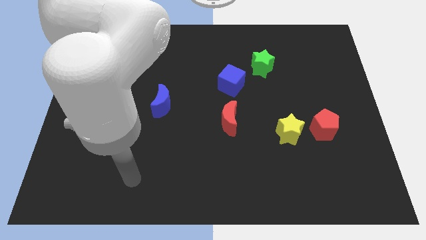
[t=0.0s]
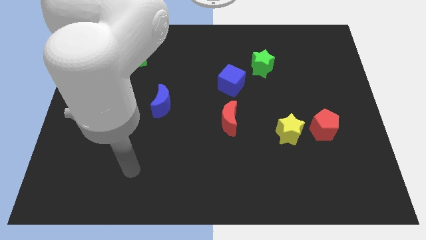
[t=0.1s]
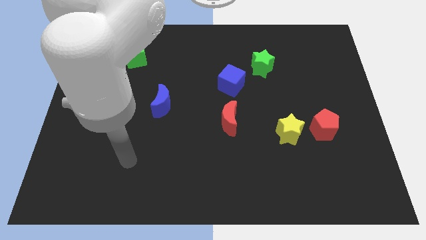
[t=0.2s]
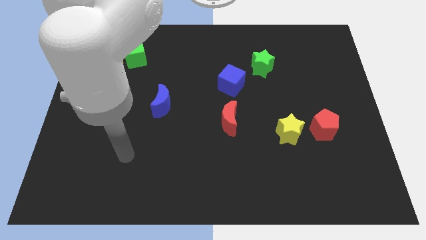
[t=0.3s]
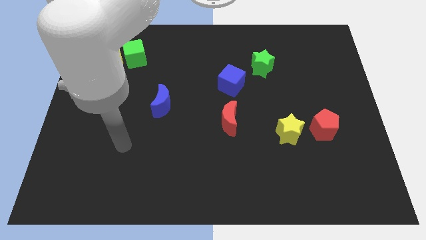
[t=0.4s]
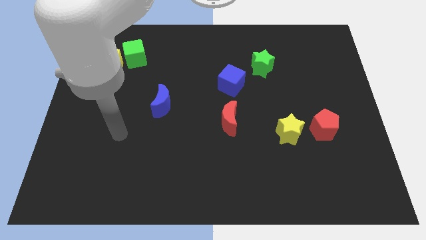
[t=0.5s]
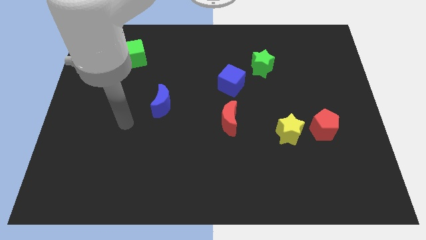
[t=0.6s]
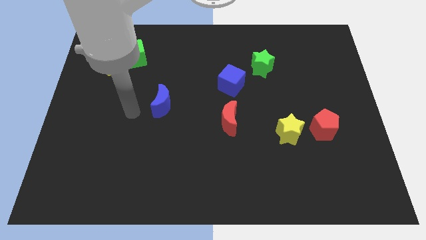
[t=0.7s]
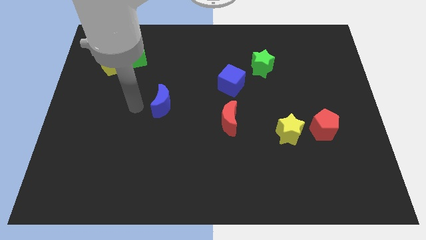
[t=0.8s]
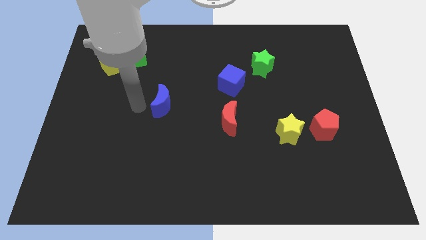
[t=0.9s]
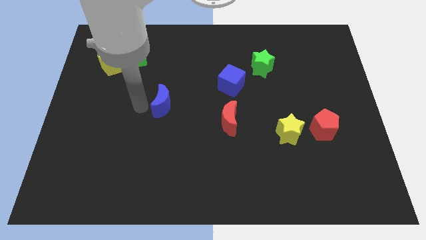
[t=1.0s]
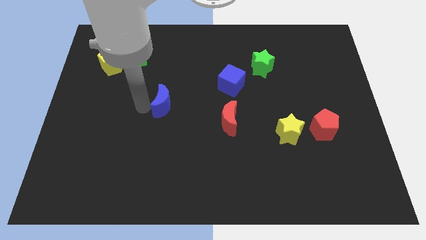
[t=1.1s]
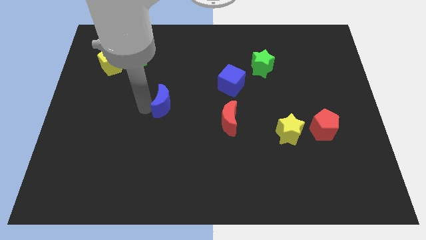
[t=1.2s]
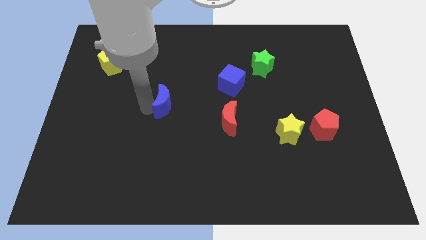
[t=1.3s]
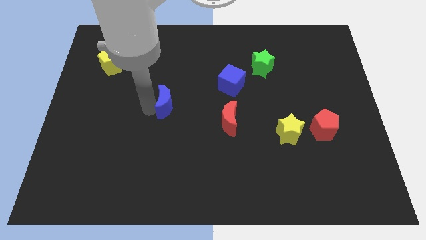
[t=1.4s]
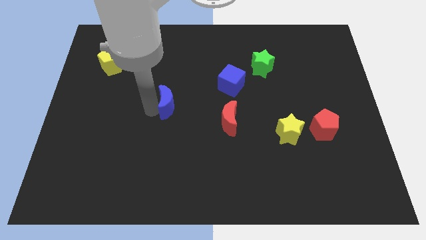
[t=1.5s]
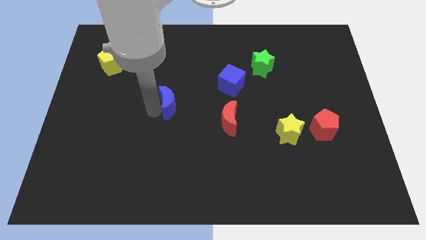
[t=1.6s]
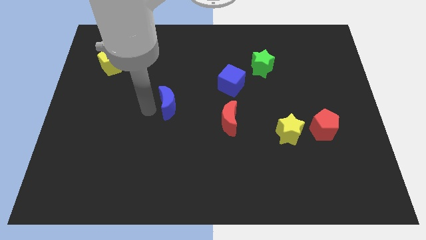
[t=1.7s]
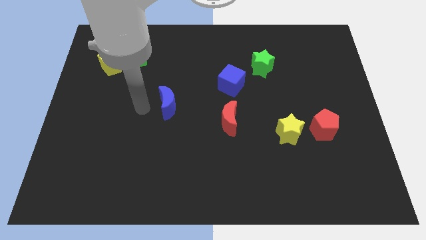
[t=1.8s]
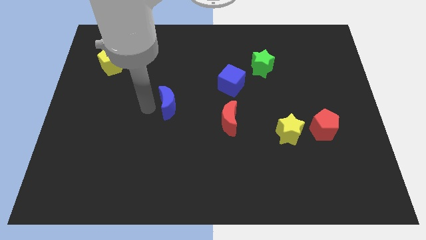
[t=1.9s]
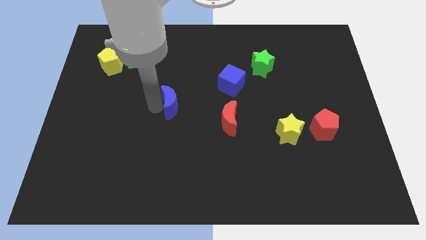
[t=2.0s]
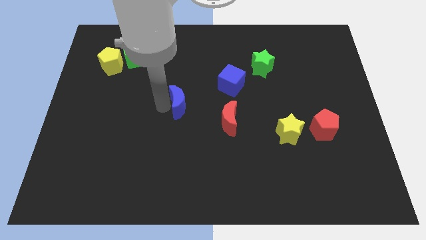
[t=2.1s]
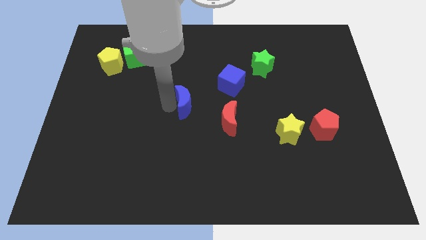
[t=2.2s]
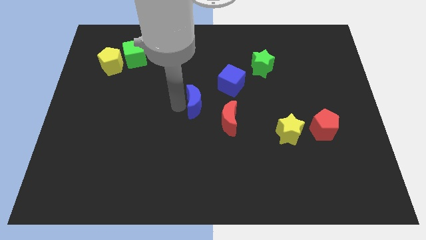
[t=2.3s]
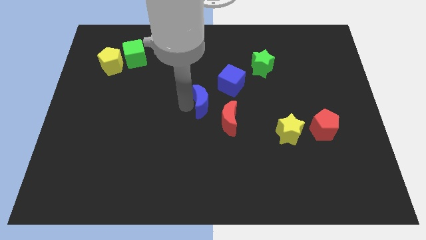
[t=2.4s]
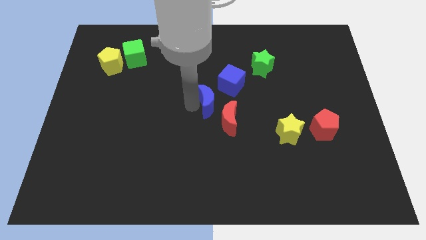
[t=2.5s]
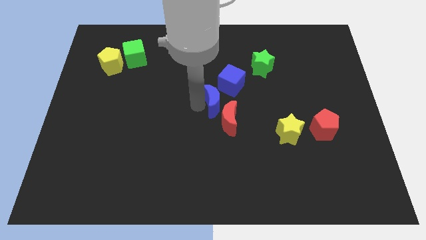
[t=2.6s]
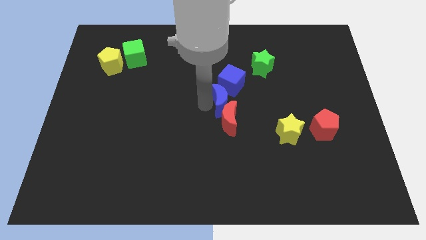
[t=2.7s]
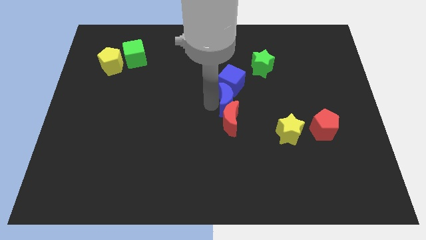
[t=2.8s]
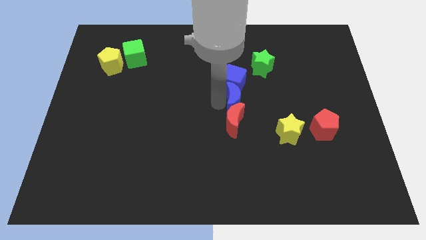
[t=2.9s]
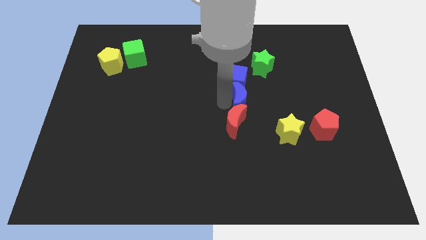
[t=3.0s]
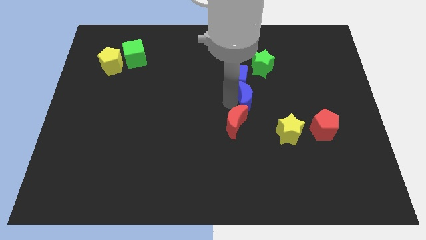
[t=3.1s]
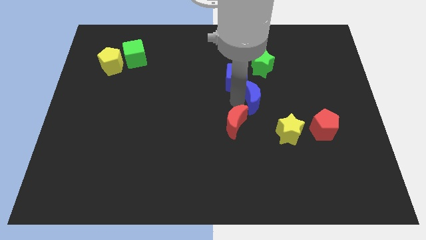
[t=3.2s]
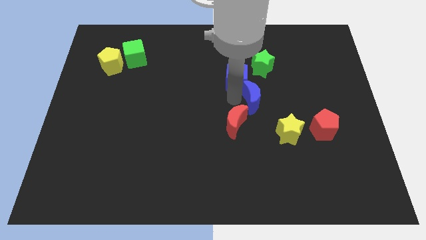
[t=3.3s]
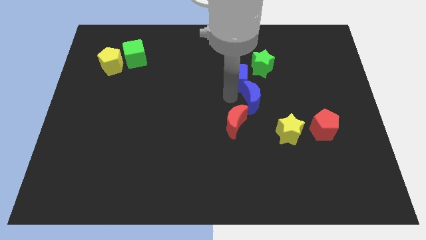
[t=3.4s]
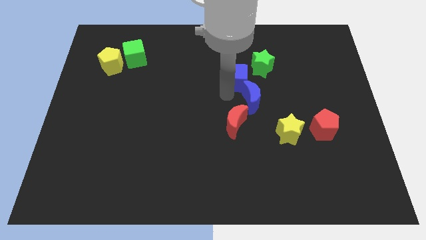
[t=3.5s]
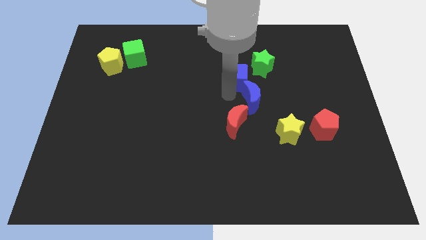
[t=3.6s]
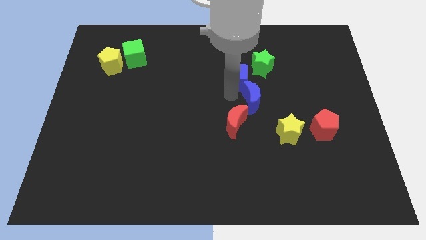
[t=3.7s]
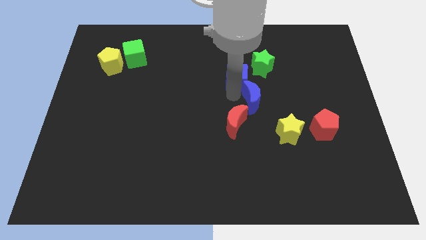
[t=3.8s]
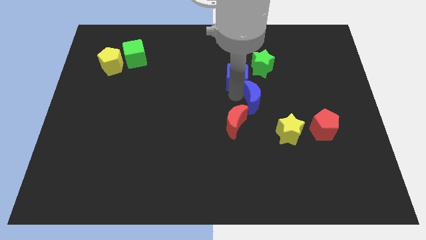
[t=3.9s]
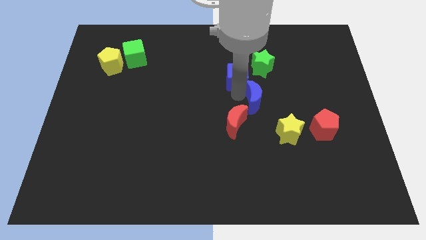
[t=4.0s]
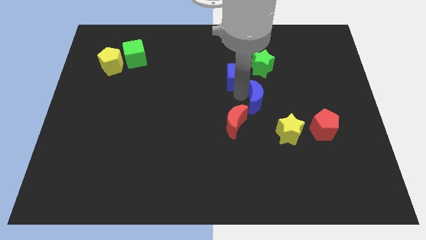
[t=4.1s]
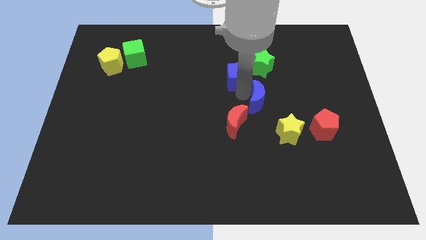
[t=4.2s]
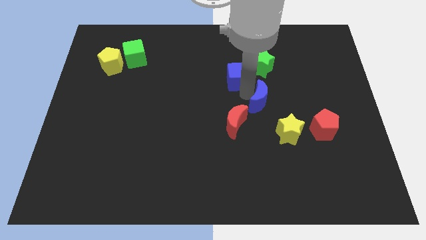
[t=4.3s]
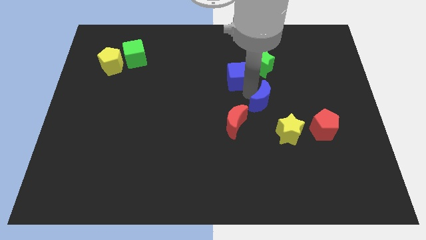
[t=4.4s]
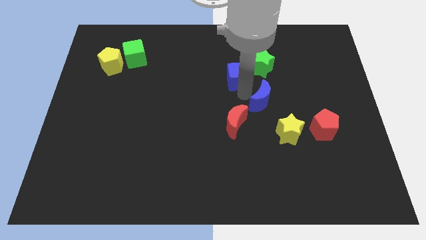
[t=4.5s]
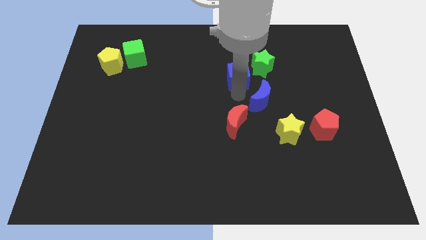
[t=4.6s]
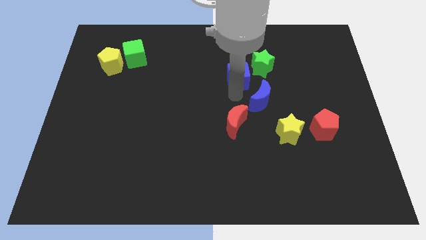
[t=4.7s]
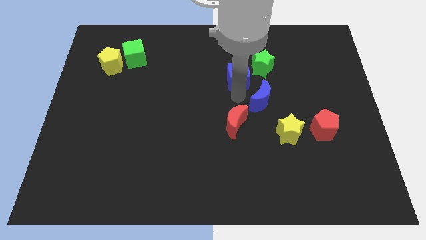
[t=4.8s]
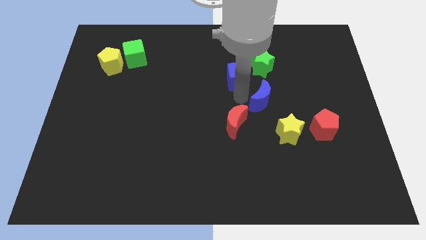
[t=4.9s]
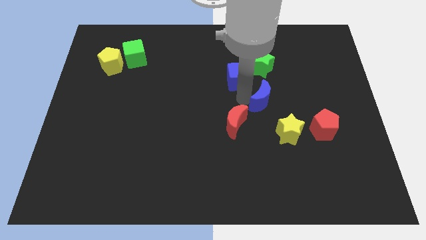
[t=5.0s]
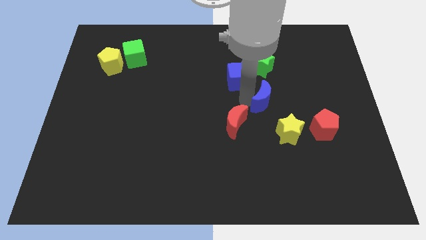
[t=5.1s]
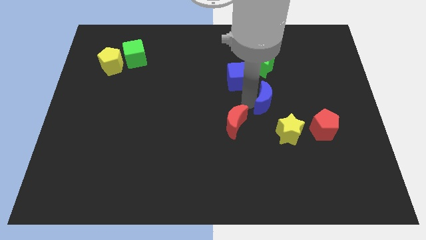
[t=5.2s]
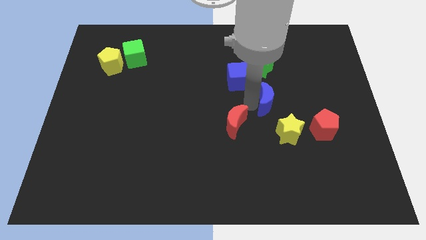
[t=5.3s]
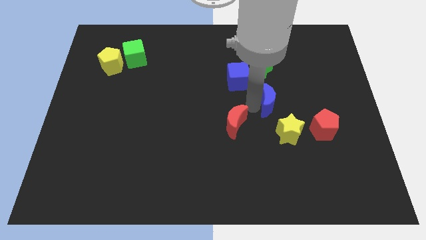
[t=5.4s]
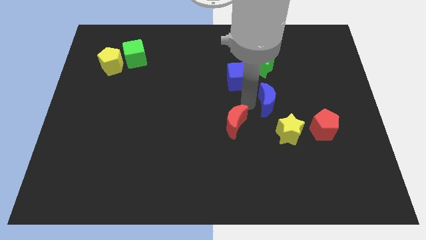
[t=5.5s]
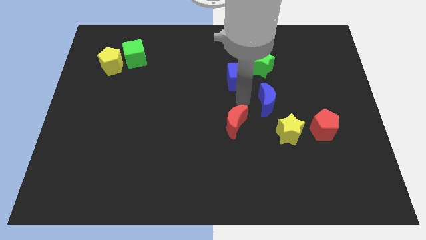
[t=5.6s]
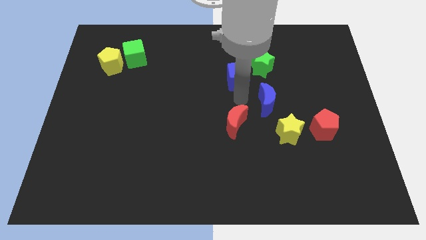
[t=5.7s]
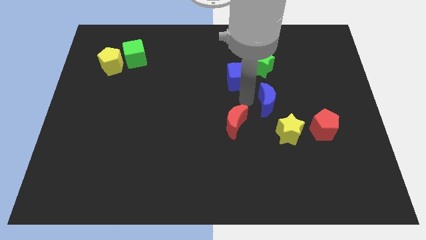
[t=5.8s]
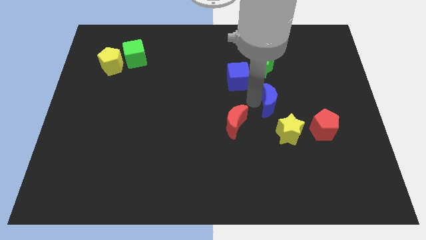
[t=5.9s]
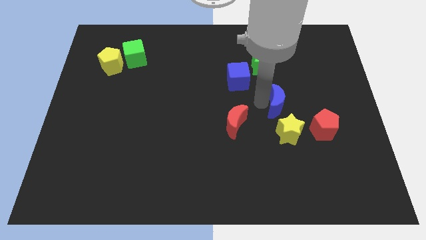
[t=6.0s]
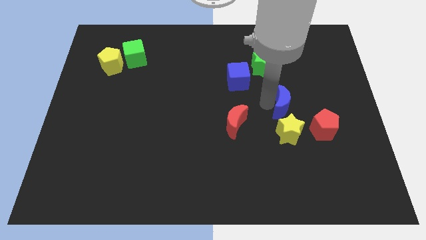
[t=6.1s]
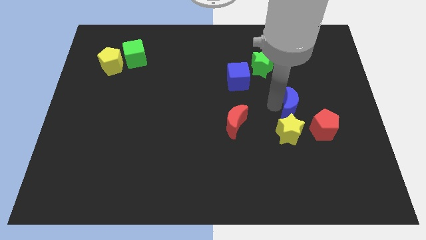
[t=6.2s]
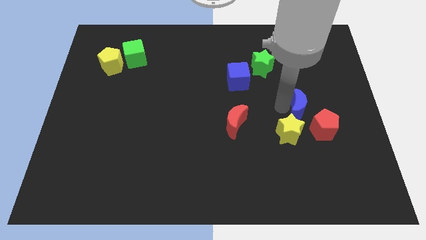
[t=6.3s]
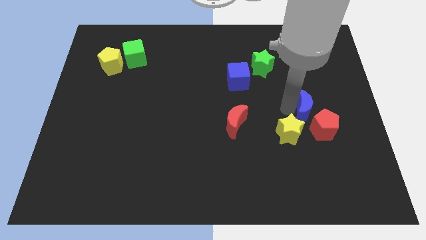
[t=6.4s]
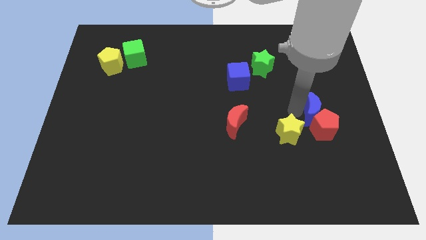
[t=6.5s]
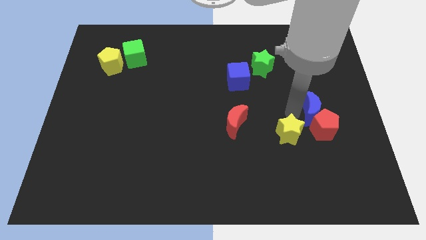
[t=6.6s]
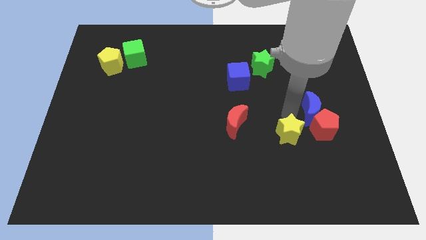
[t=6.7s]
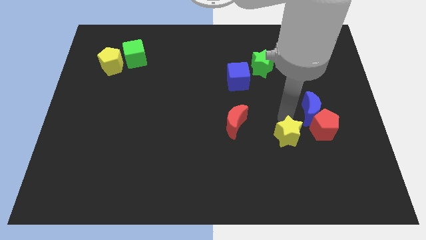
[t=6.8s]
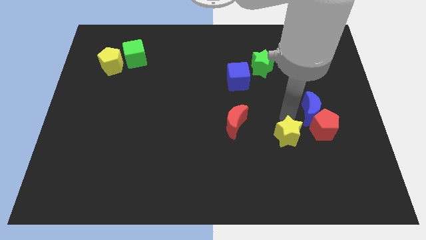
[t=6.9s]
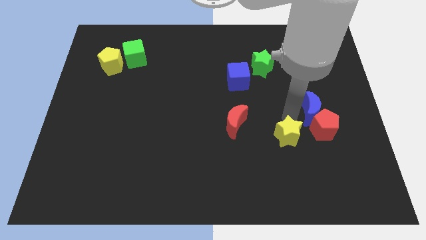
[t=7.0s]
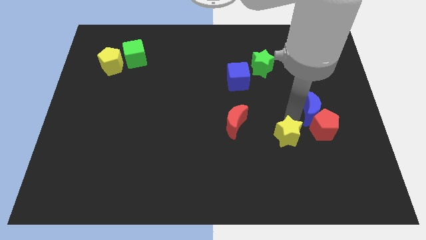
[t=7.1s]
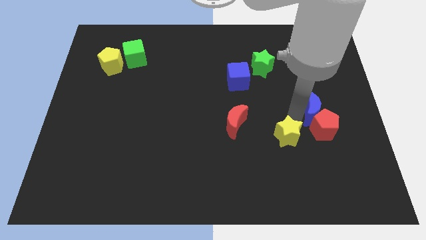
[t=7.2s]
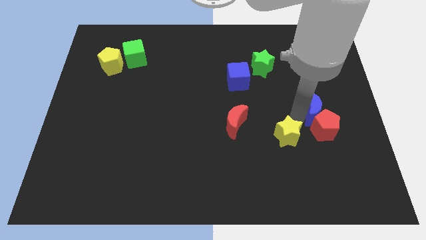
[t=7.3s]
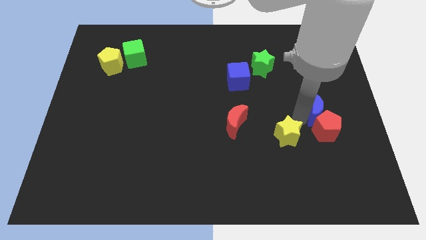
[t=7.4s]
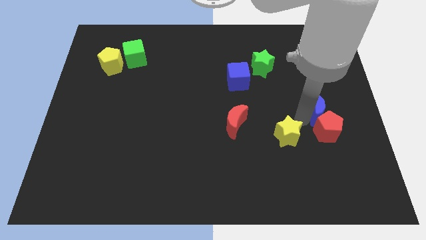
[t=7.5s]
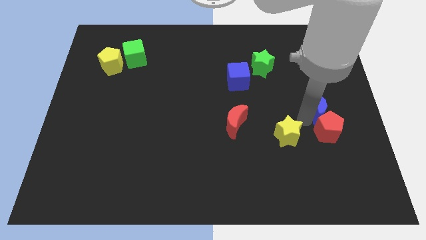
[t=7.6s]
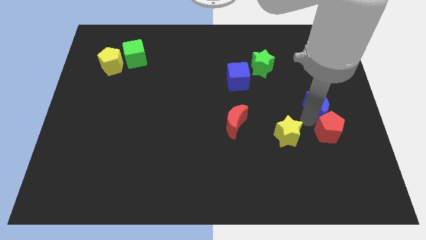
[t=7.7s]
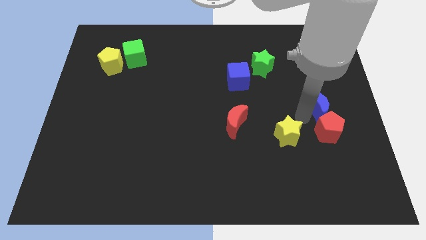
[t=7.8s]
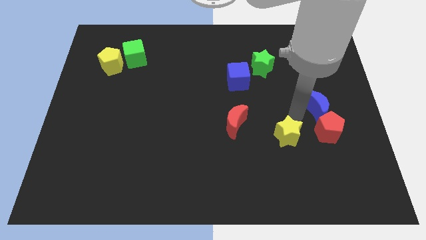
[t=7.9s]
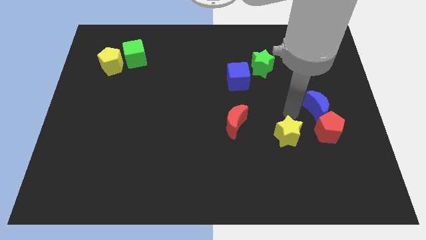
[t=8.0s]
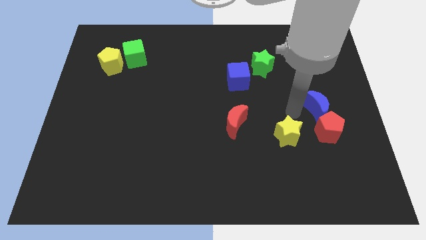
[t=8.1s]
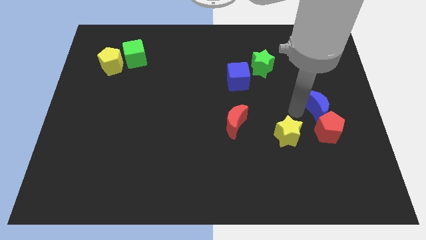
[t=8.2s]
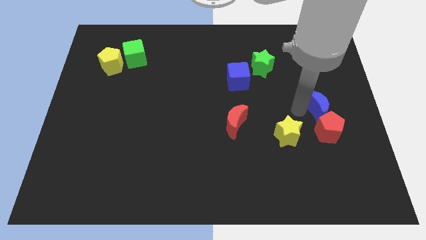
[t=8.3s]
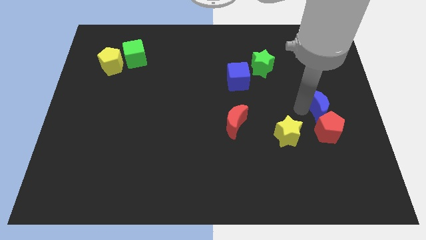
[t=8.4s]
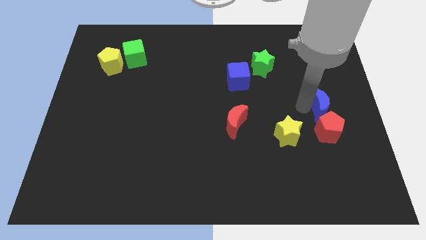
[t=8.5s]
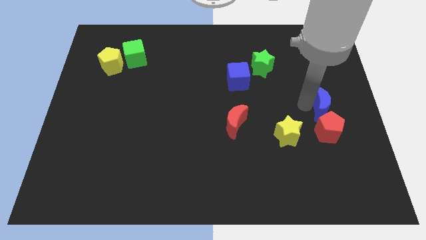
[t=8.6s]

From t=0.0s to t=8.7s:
slide the blue moon to the center right
